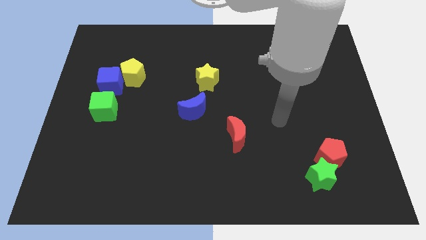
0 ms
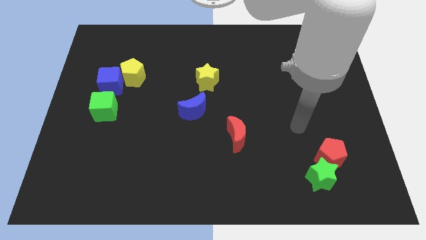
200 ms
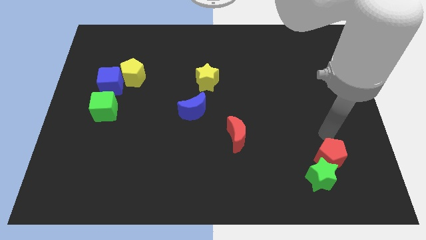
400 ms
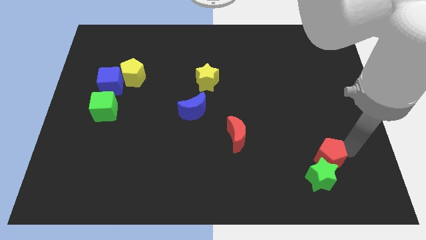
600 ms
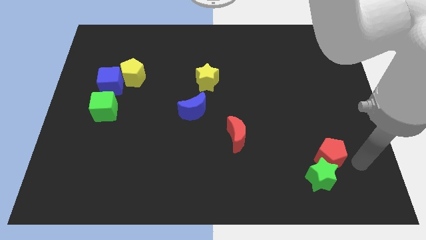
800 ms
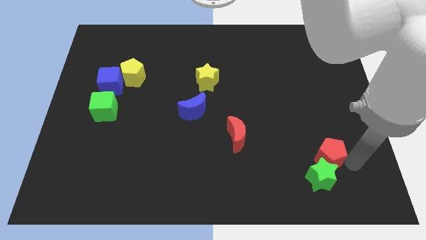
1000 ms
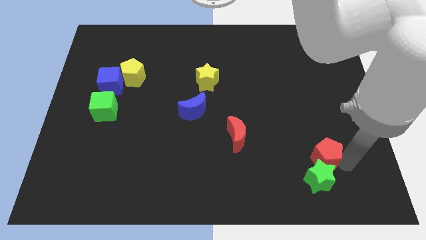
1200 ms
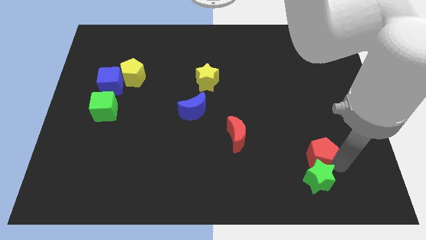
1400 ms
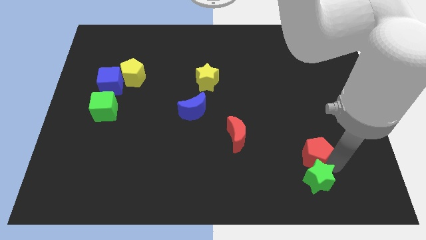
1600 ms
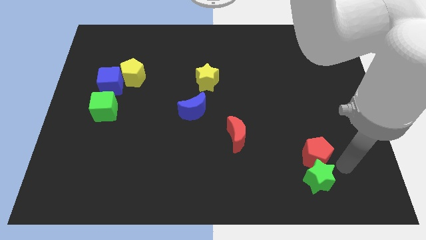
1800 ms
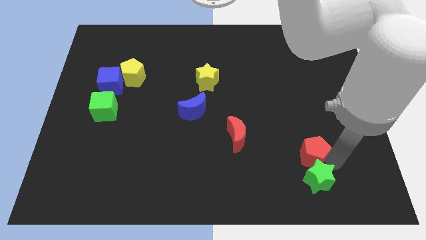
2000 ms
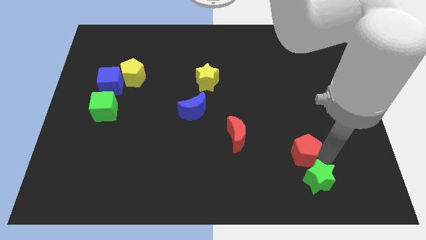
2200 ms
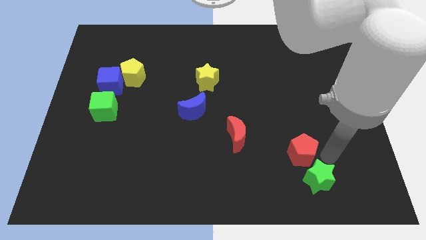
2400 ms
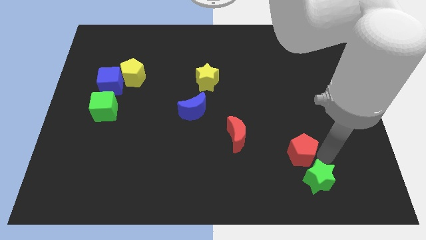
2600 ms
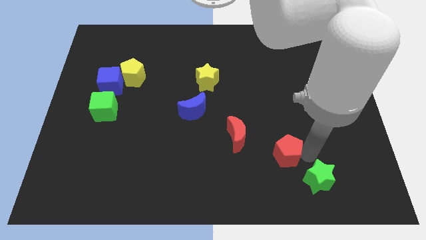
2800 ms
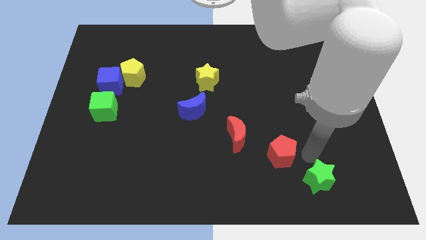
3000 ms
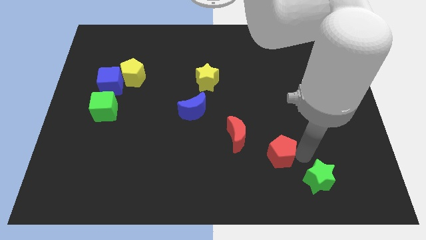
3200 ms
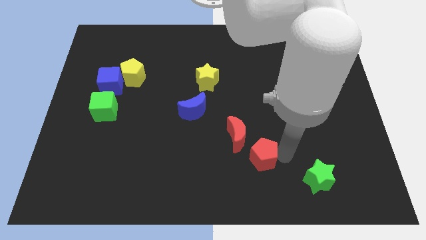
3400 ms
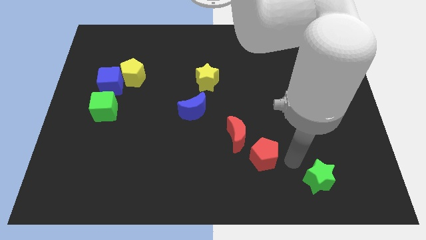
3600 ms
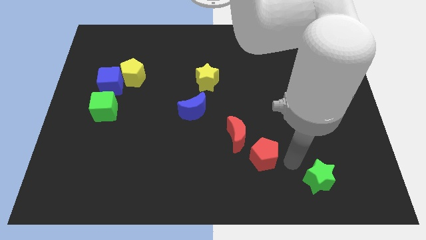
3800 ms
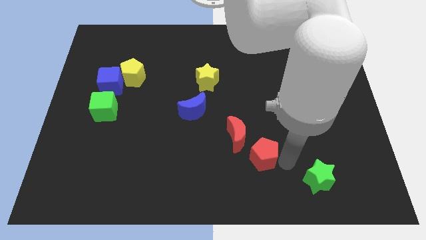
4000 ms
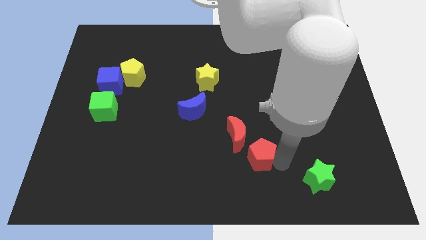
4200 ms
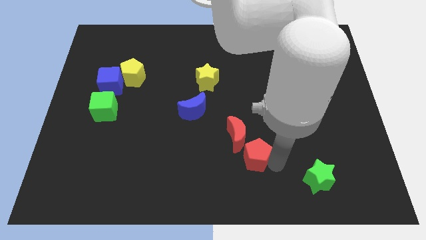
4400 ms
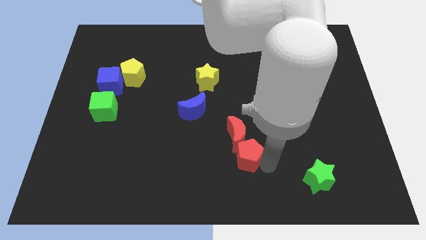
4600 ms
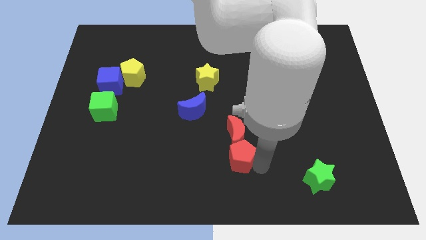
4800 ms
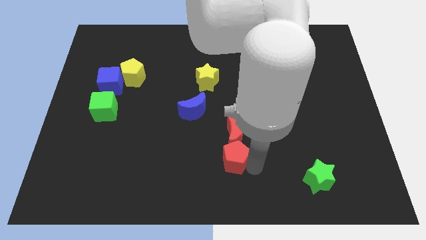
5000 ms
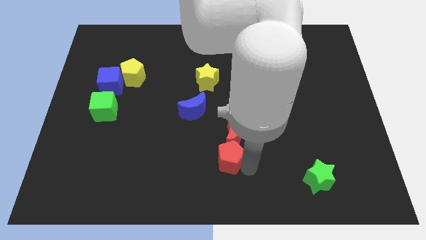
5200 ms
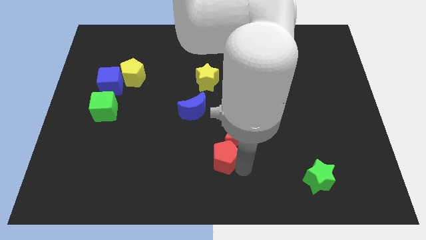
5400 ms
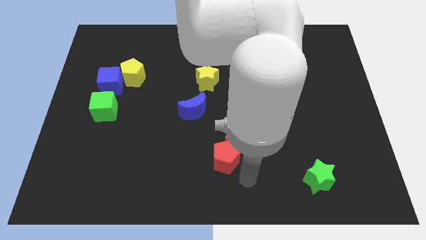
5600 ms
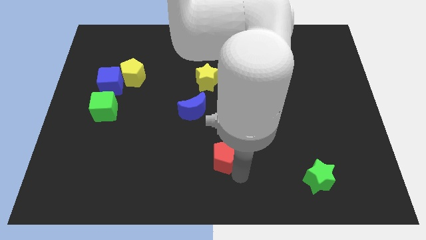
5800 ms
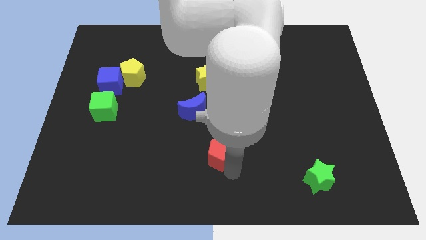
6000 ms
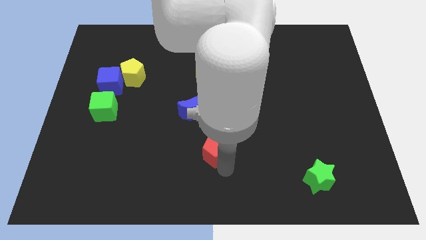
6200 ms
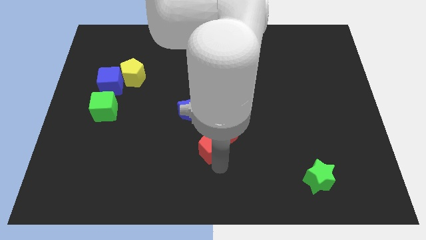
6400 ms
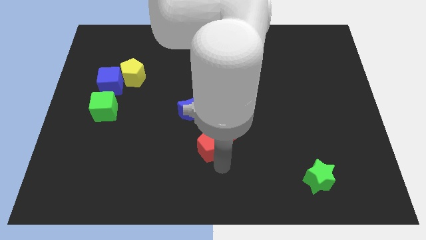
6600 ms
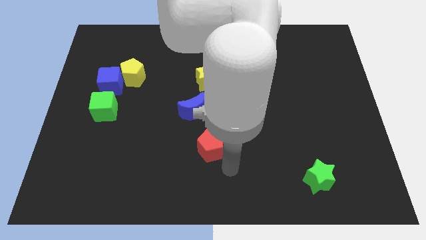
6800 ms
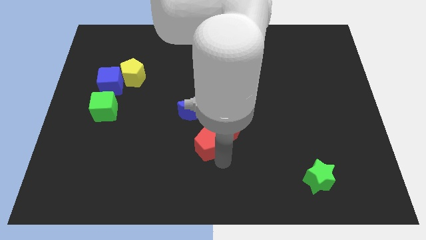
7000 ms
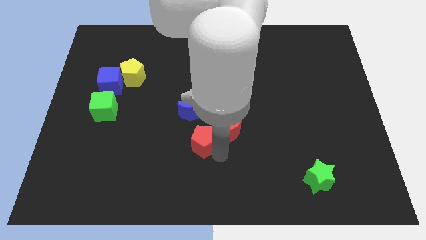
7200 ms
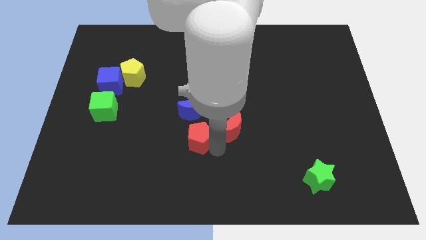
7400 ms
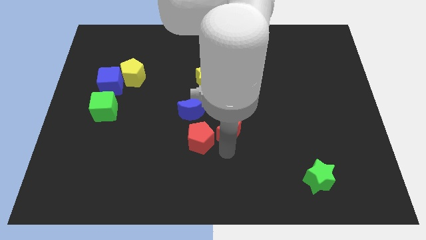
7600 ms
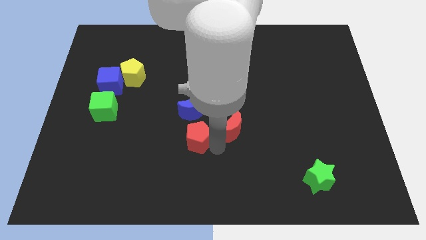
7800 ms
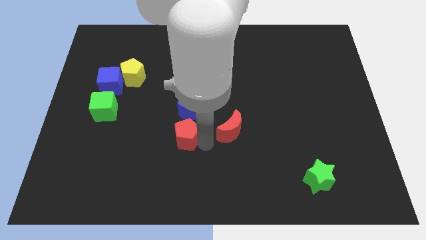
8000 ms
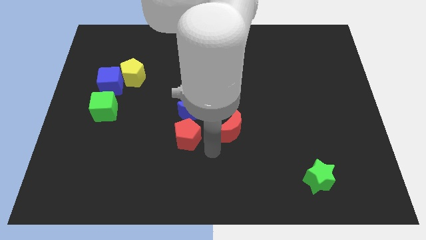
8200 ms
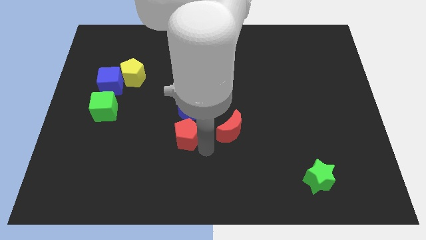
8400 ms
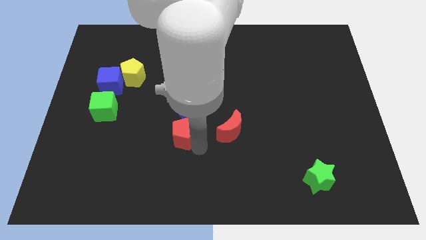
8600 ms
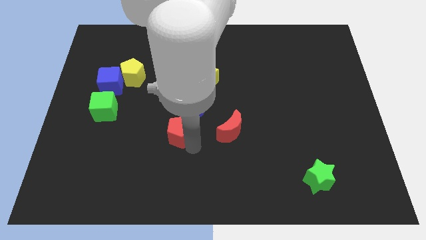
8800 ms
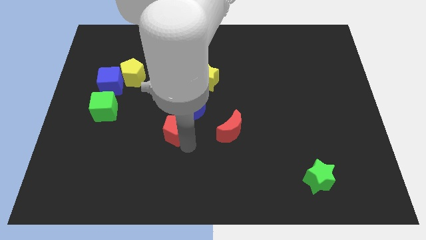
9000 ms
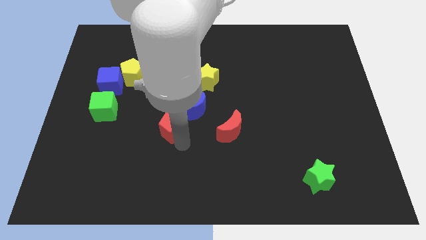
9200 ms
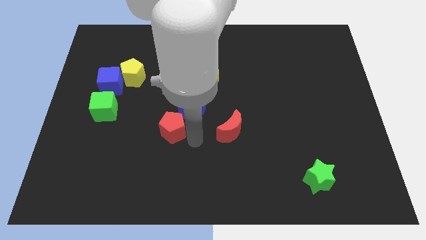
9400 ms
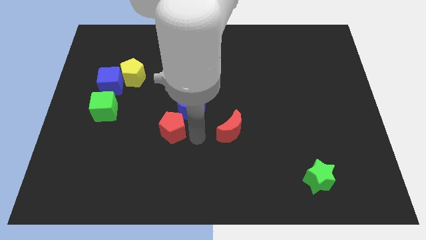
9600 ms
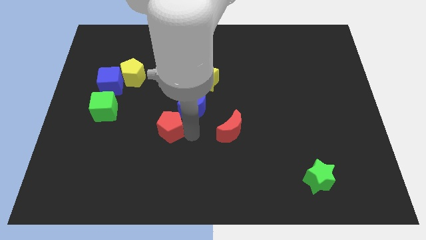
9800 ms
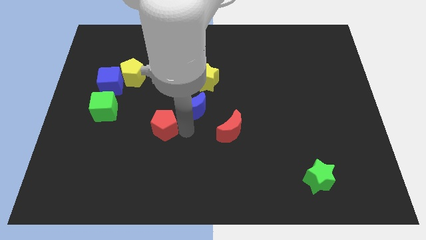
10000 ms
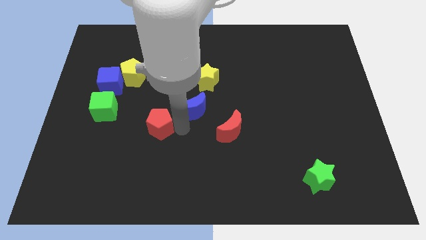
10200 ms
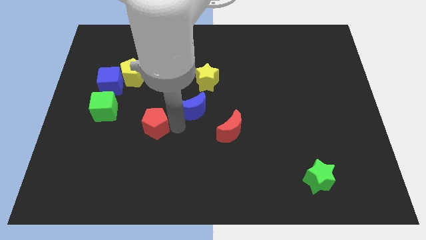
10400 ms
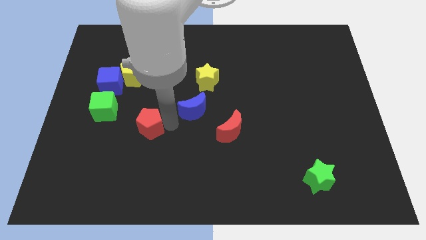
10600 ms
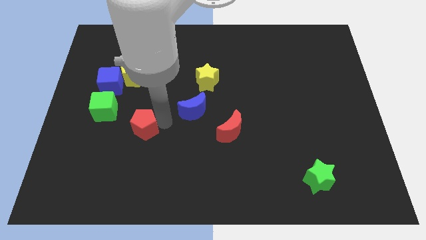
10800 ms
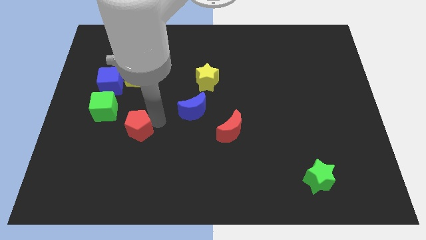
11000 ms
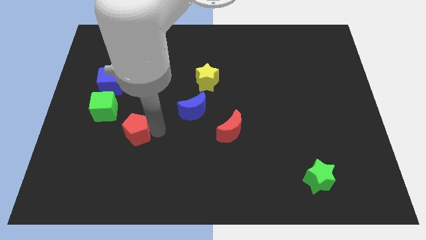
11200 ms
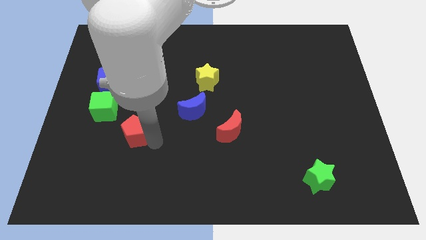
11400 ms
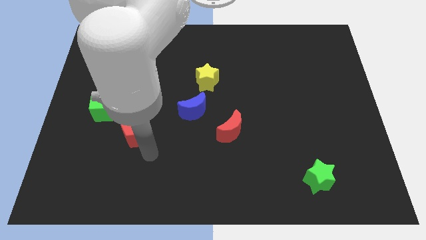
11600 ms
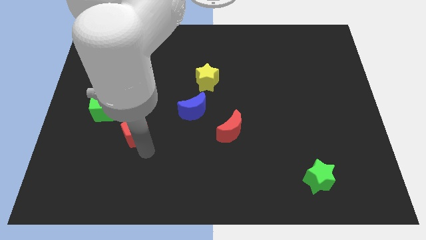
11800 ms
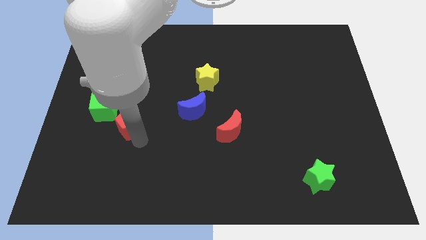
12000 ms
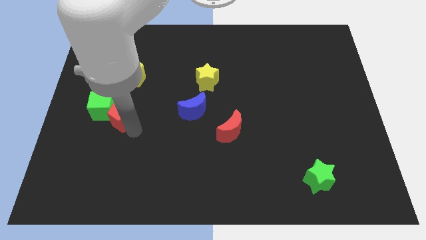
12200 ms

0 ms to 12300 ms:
put the red pentagon close to the green cube

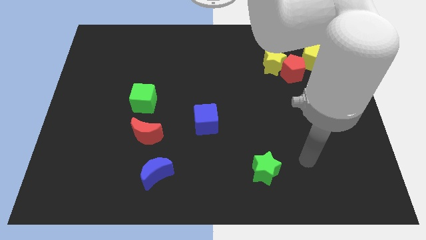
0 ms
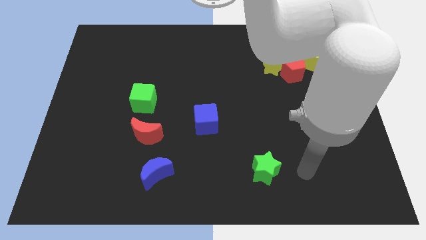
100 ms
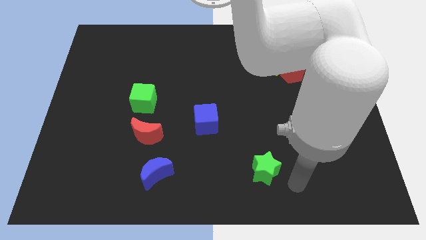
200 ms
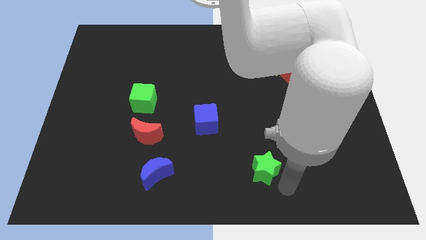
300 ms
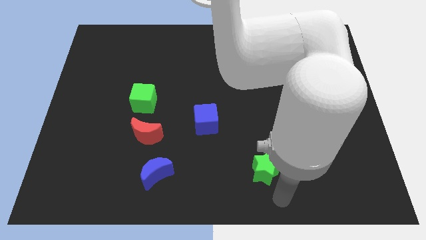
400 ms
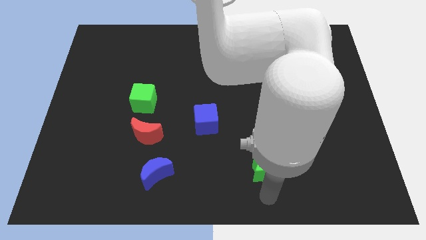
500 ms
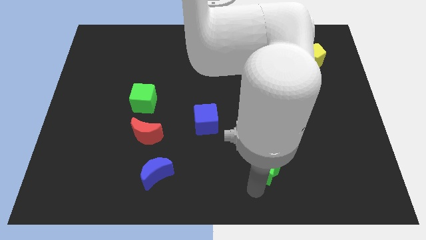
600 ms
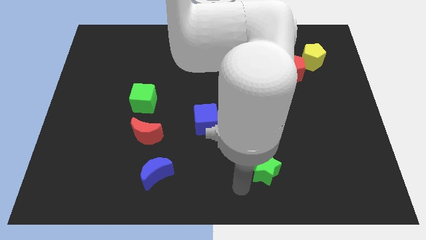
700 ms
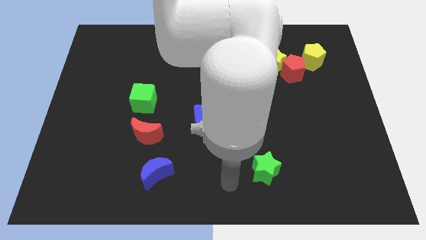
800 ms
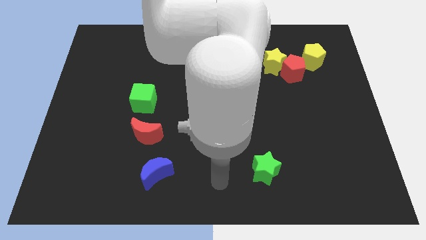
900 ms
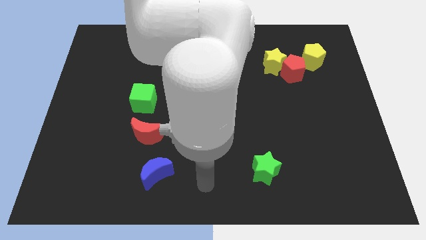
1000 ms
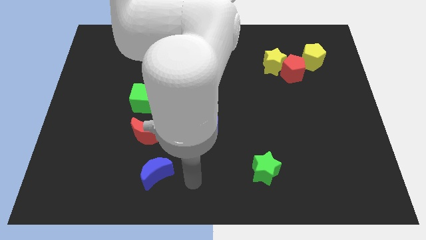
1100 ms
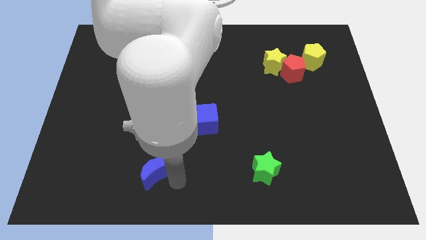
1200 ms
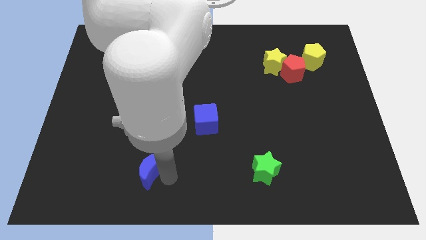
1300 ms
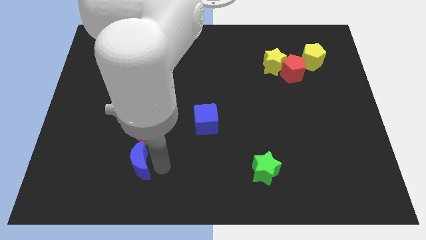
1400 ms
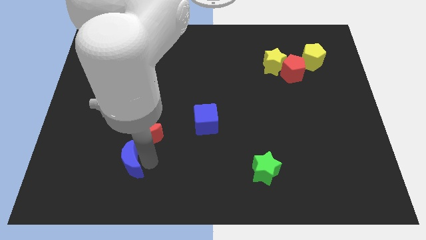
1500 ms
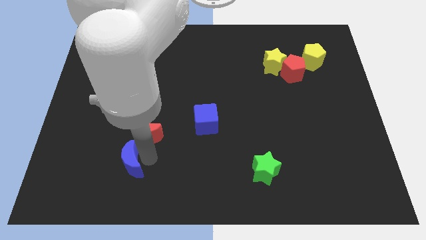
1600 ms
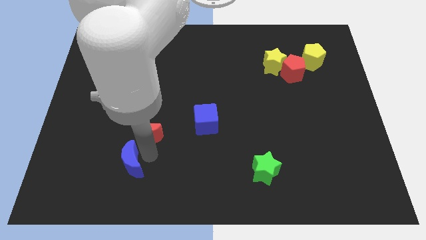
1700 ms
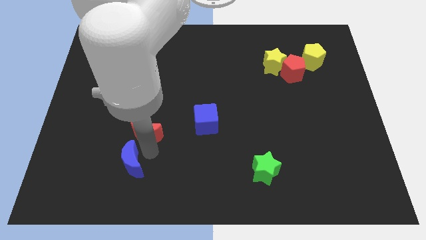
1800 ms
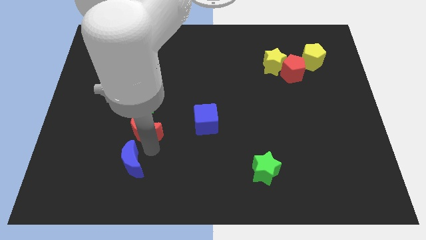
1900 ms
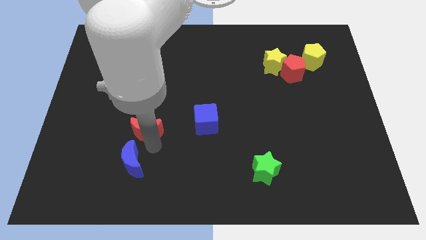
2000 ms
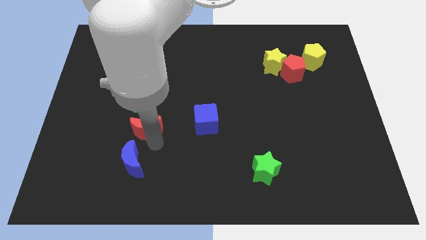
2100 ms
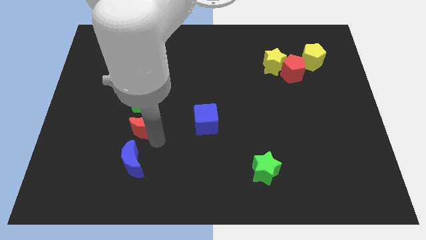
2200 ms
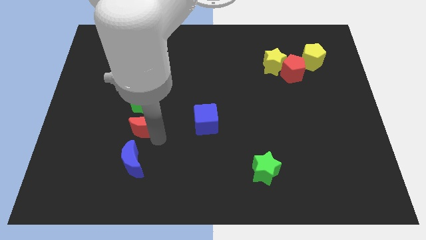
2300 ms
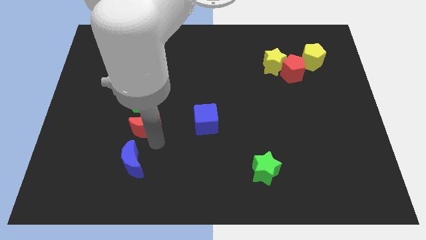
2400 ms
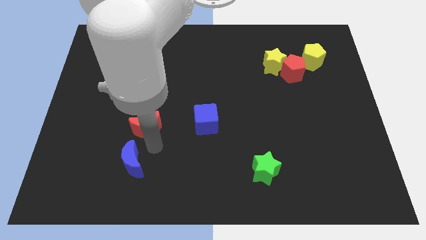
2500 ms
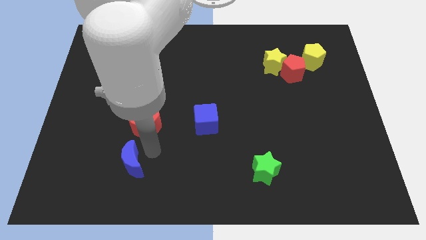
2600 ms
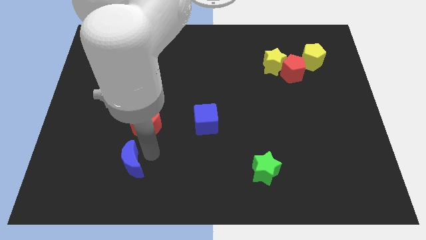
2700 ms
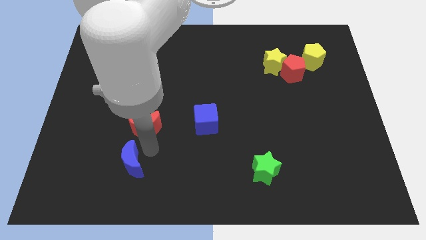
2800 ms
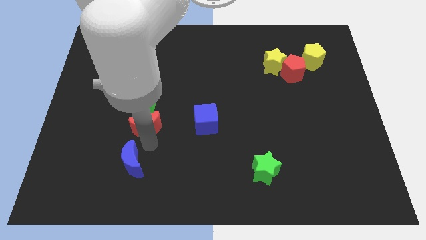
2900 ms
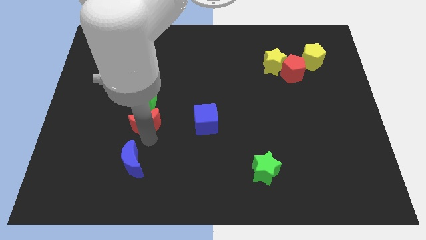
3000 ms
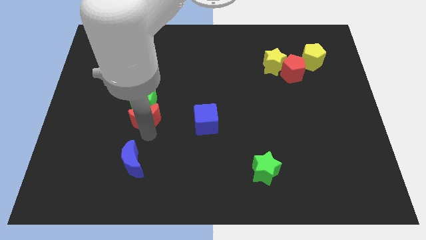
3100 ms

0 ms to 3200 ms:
put the red moon close to the green cube
